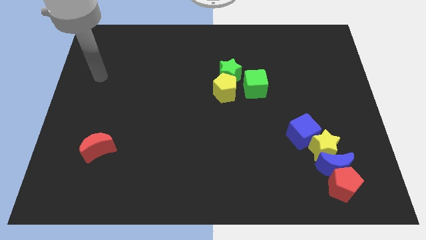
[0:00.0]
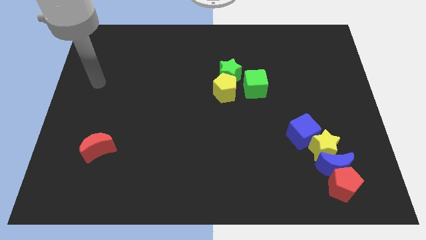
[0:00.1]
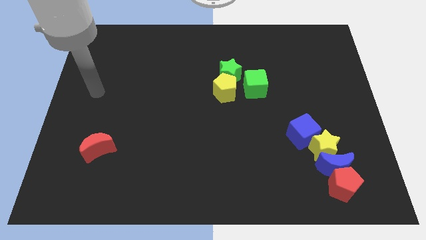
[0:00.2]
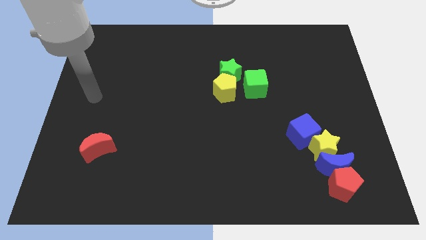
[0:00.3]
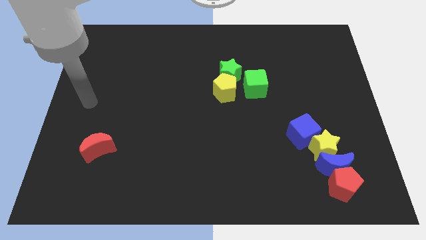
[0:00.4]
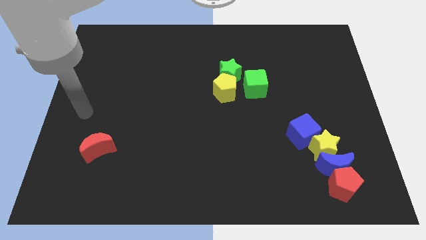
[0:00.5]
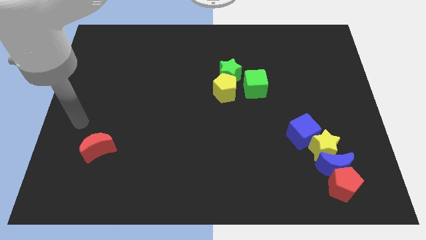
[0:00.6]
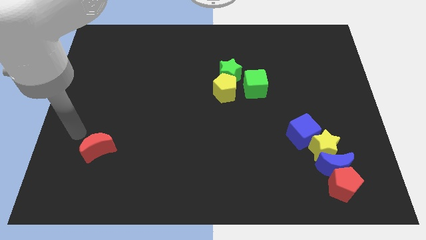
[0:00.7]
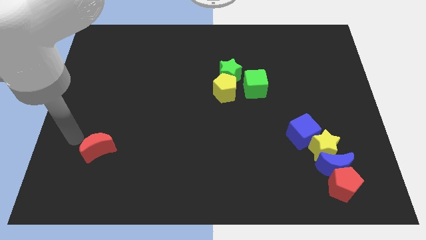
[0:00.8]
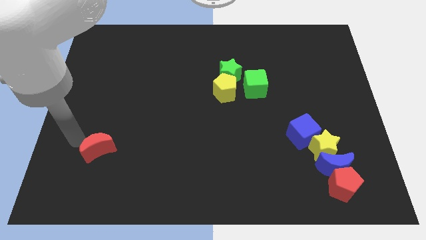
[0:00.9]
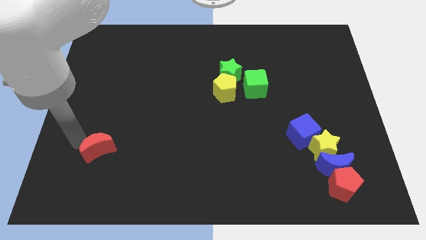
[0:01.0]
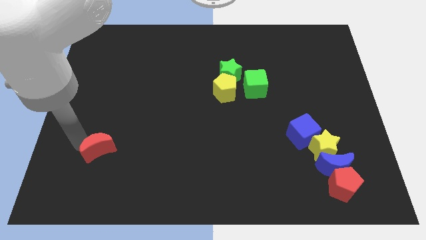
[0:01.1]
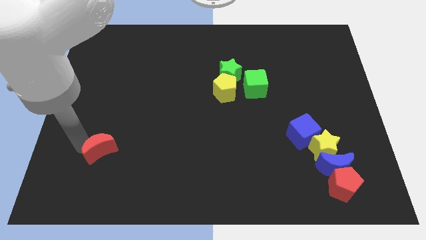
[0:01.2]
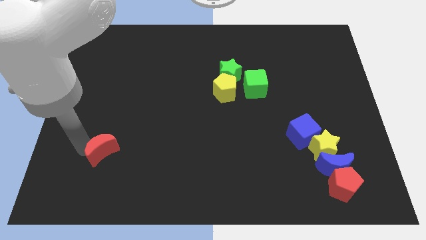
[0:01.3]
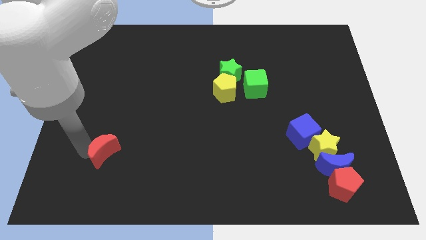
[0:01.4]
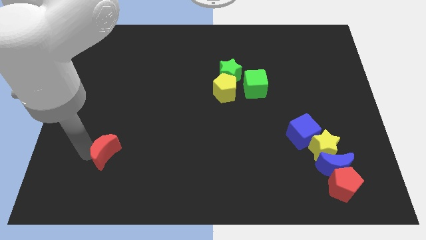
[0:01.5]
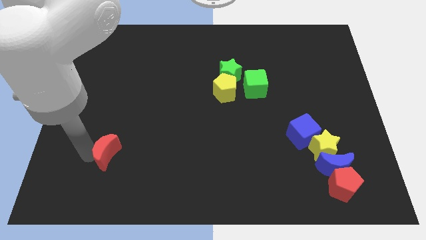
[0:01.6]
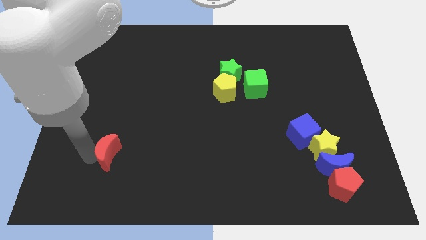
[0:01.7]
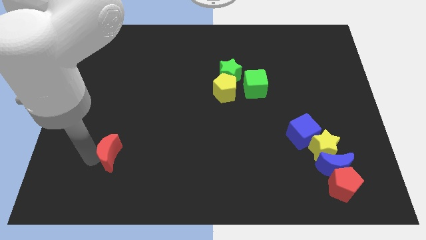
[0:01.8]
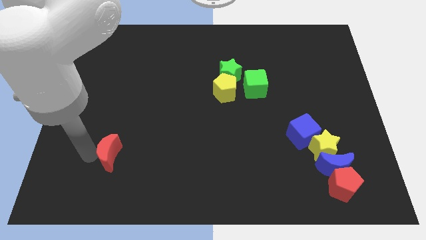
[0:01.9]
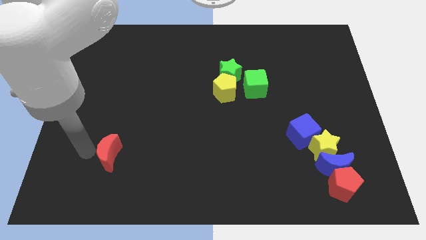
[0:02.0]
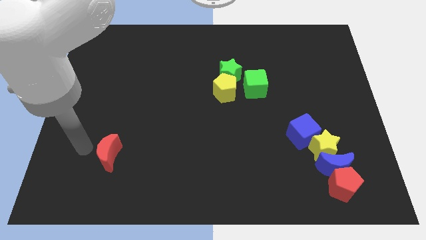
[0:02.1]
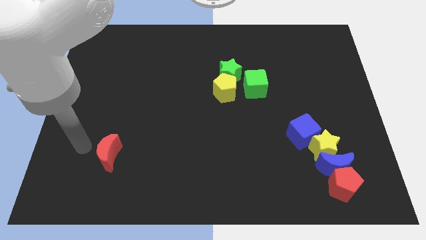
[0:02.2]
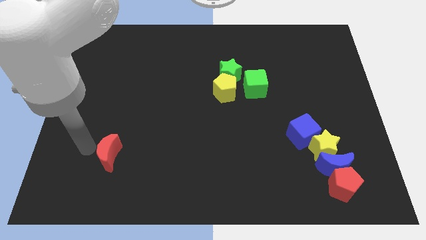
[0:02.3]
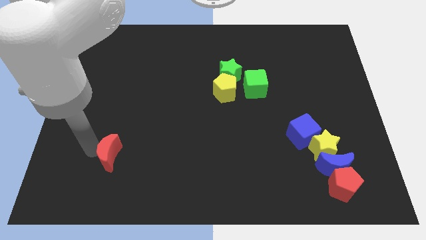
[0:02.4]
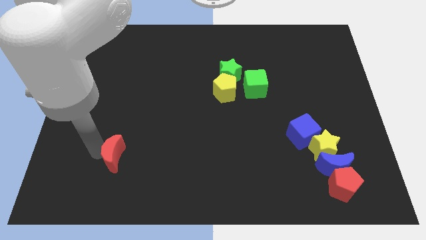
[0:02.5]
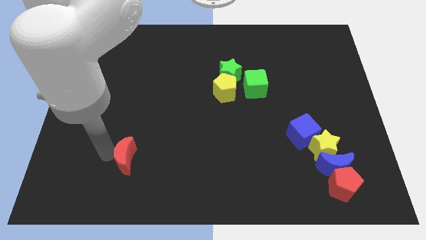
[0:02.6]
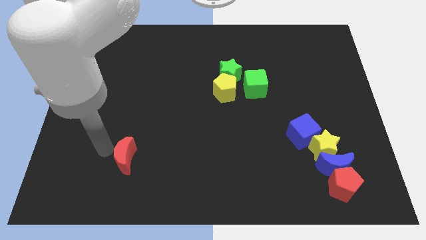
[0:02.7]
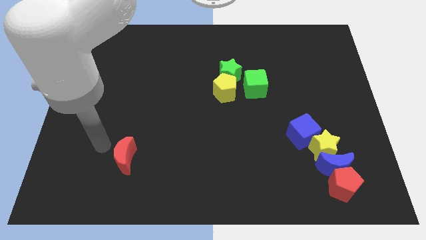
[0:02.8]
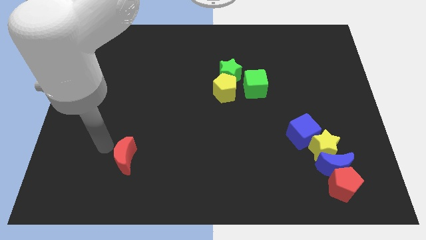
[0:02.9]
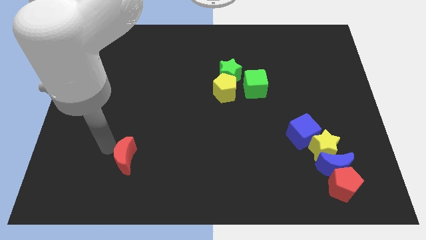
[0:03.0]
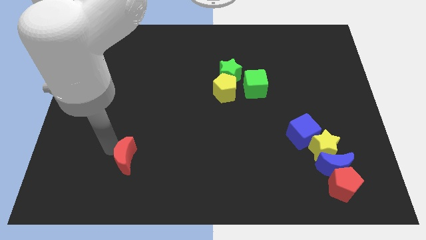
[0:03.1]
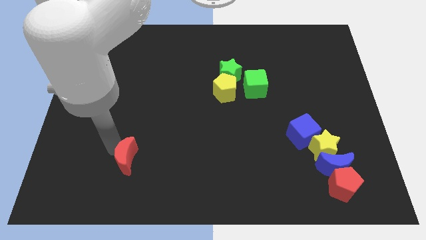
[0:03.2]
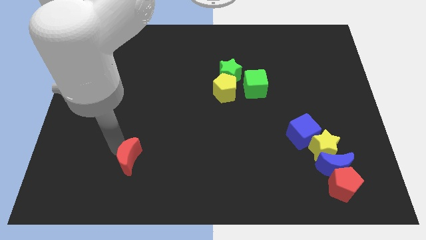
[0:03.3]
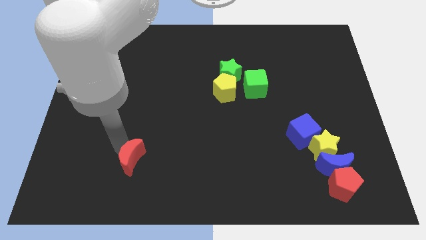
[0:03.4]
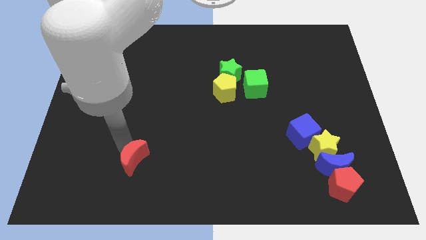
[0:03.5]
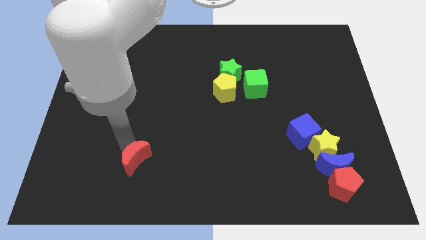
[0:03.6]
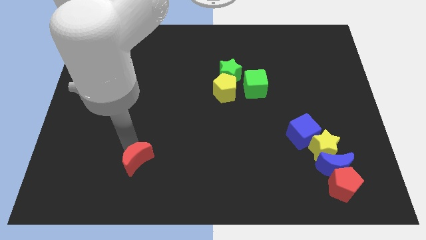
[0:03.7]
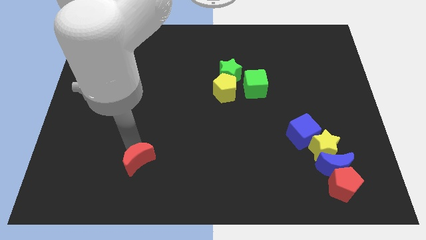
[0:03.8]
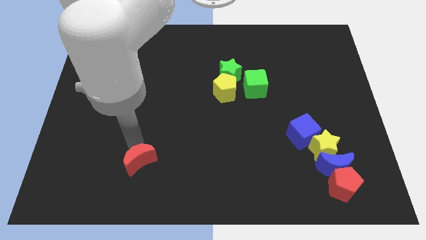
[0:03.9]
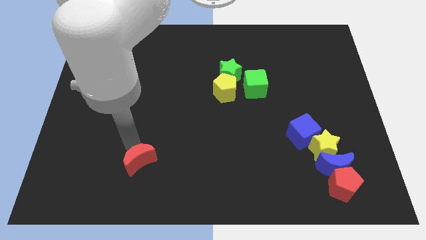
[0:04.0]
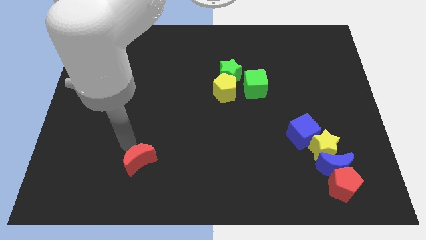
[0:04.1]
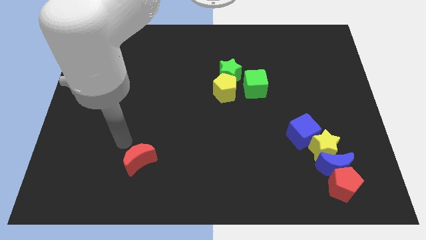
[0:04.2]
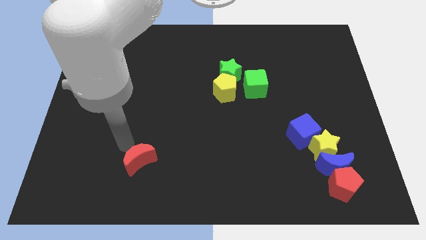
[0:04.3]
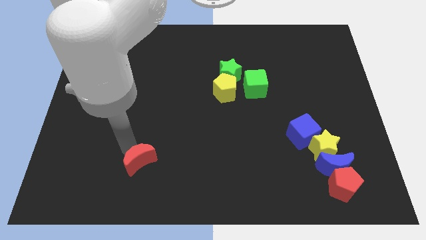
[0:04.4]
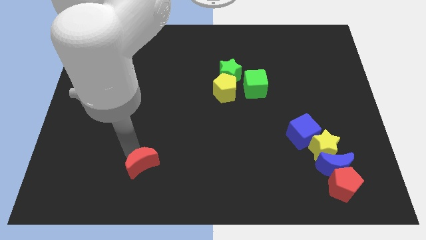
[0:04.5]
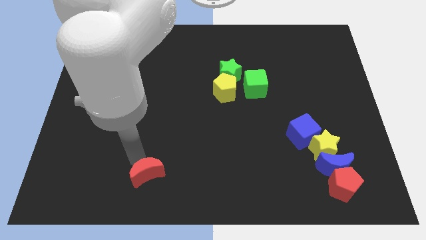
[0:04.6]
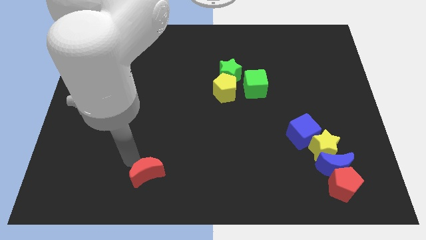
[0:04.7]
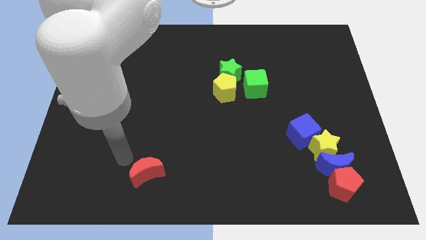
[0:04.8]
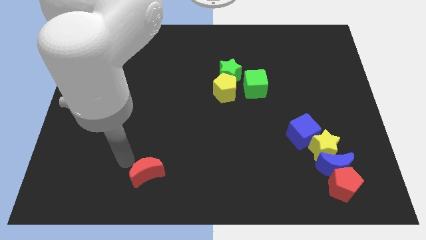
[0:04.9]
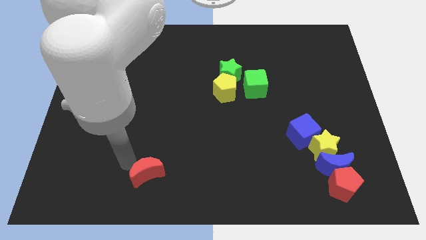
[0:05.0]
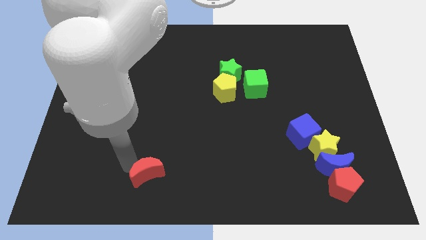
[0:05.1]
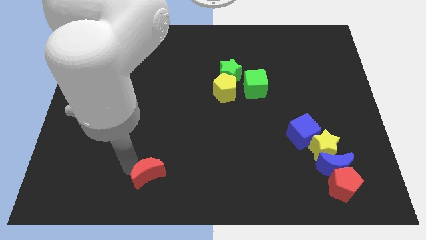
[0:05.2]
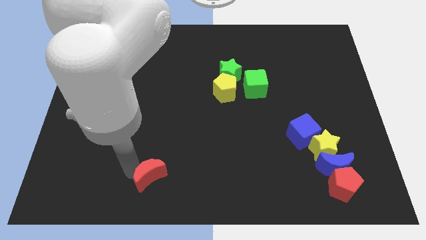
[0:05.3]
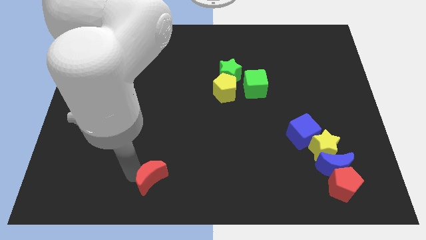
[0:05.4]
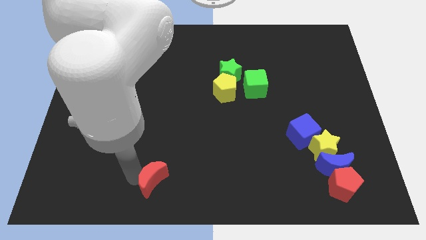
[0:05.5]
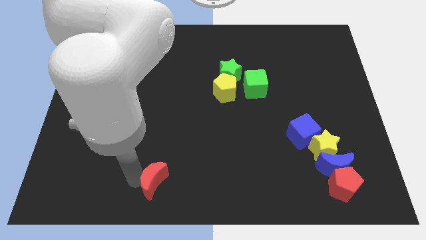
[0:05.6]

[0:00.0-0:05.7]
move the red moon to the bottom side
